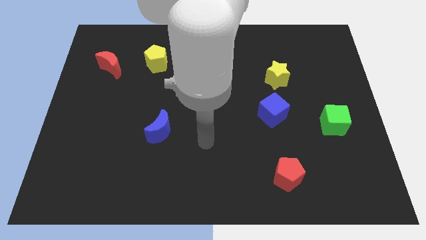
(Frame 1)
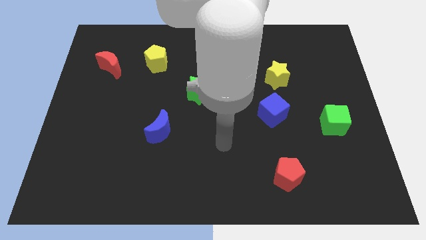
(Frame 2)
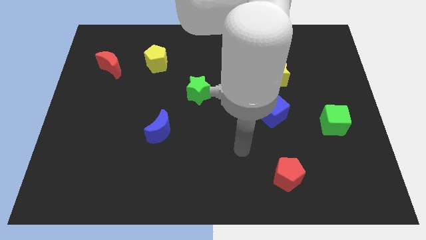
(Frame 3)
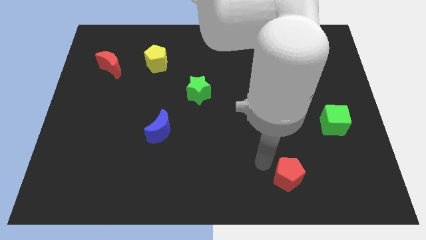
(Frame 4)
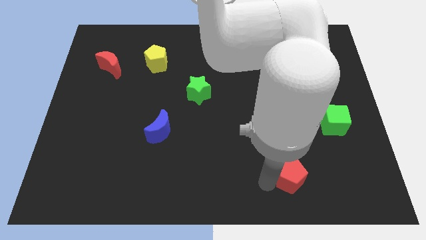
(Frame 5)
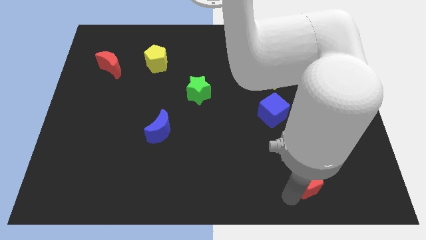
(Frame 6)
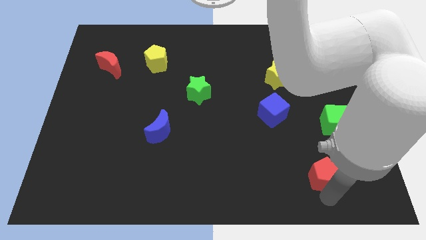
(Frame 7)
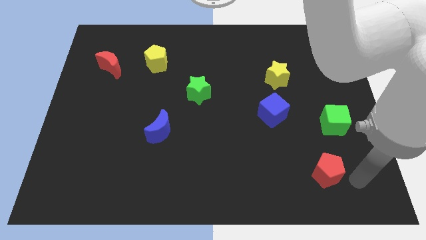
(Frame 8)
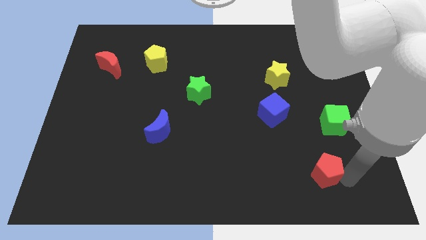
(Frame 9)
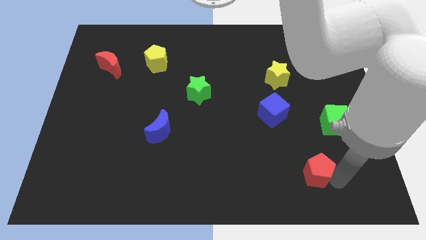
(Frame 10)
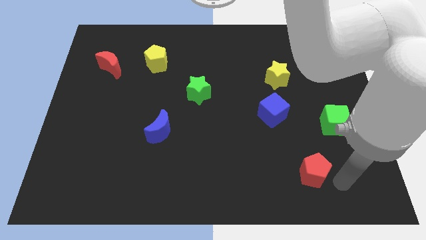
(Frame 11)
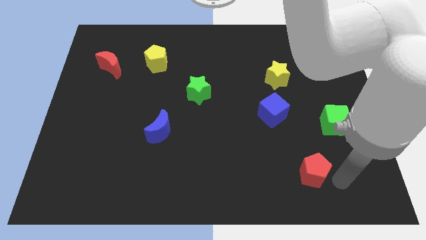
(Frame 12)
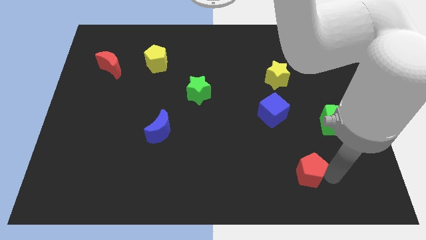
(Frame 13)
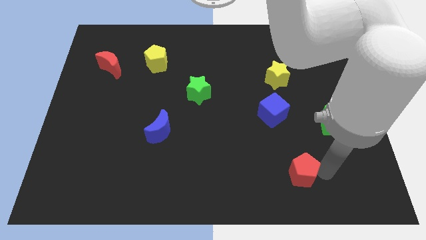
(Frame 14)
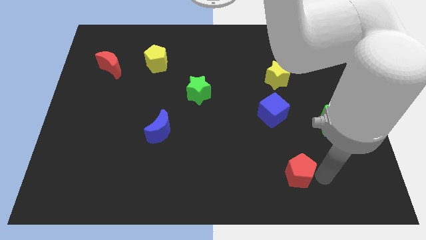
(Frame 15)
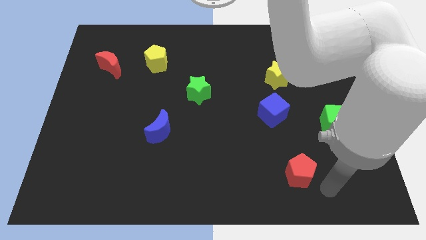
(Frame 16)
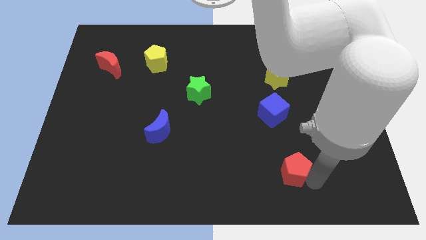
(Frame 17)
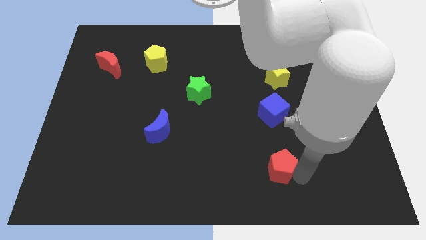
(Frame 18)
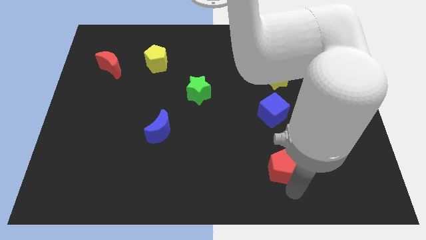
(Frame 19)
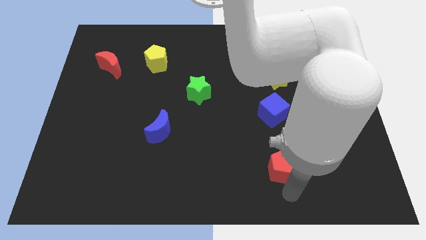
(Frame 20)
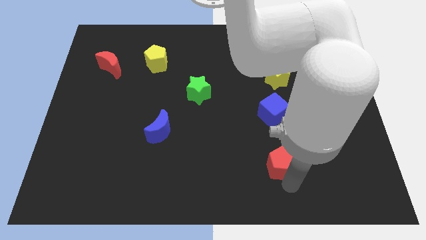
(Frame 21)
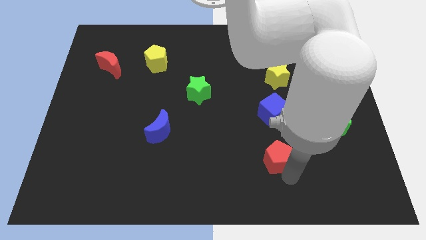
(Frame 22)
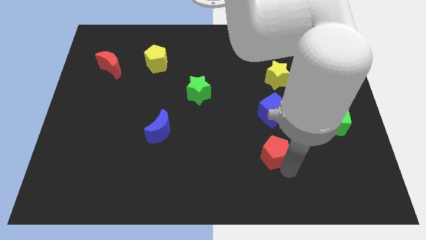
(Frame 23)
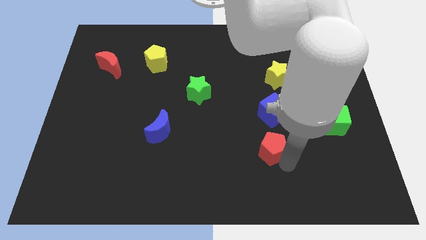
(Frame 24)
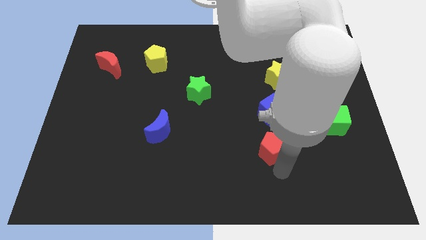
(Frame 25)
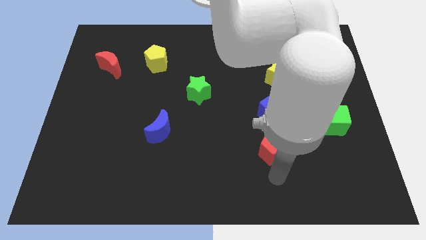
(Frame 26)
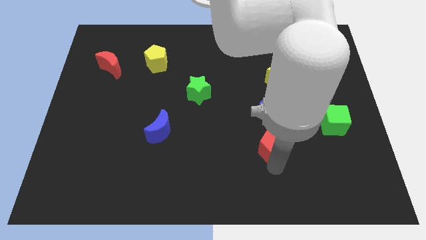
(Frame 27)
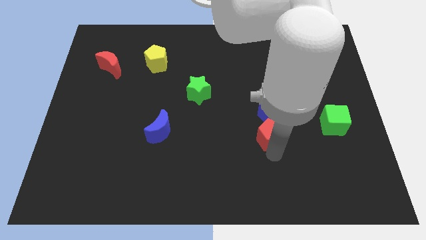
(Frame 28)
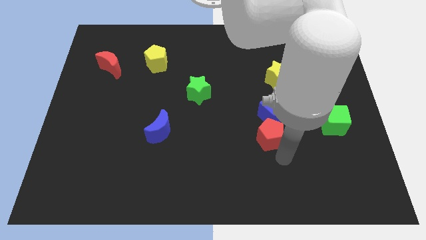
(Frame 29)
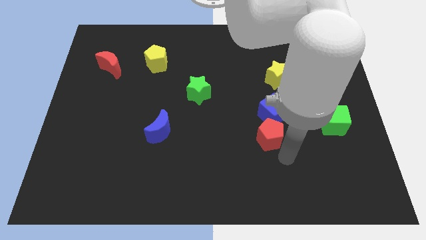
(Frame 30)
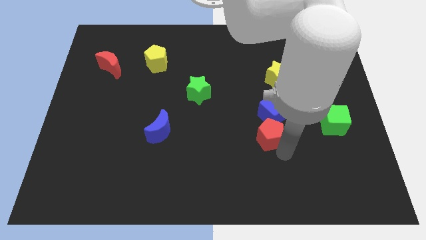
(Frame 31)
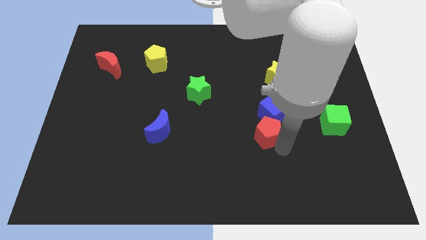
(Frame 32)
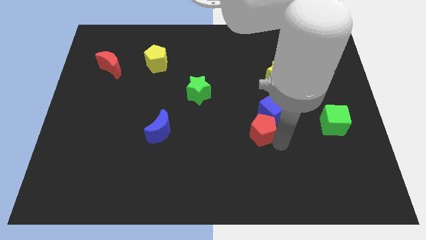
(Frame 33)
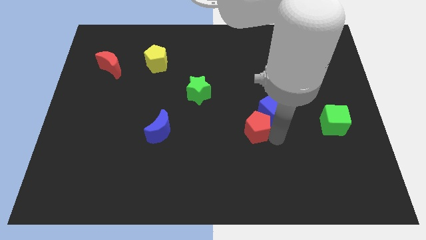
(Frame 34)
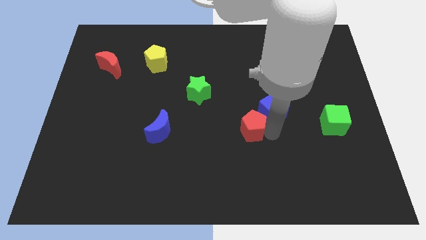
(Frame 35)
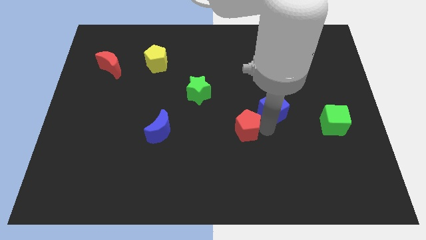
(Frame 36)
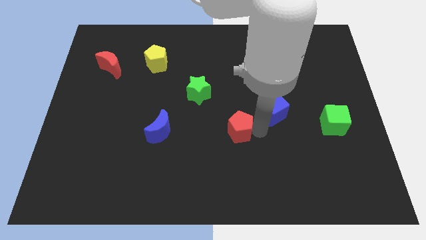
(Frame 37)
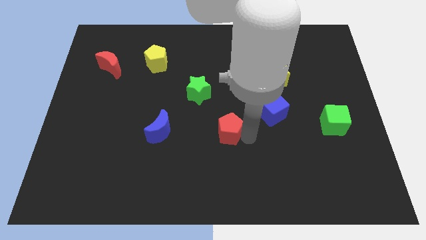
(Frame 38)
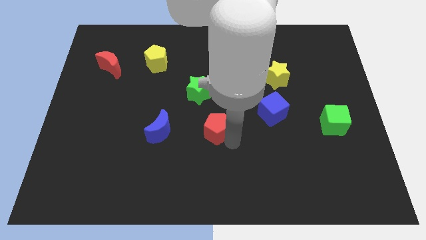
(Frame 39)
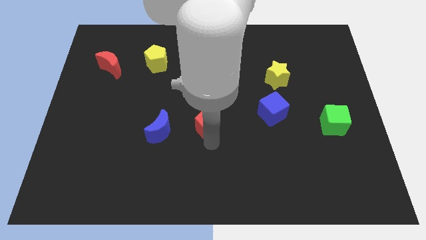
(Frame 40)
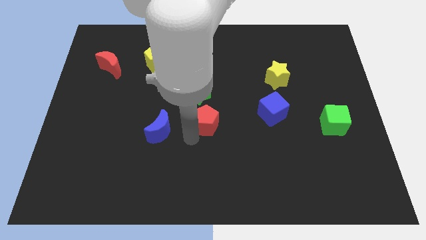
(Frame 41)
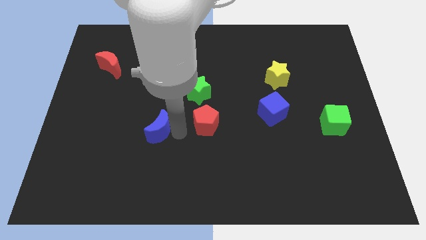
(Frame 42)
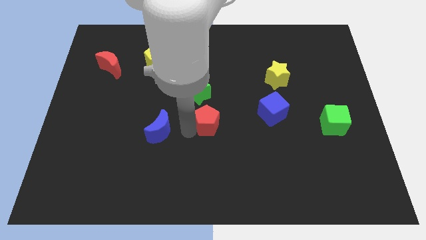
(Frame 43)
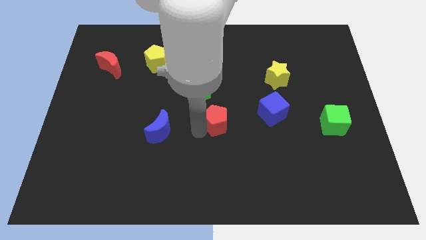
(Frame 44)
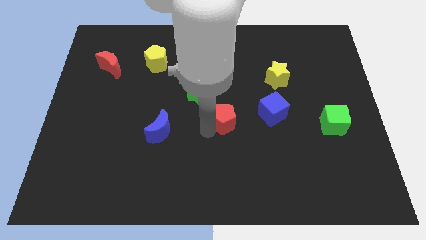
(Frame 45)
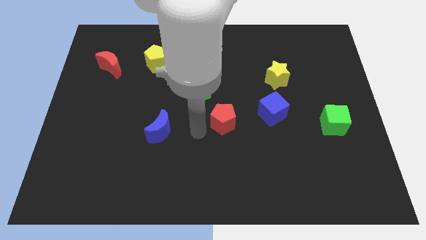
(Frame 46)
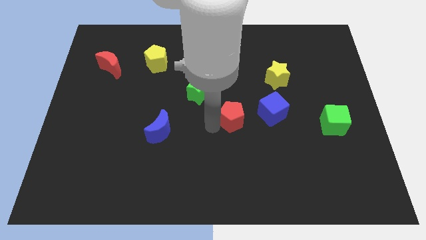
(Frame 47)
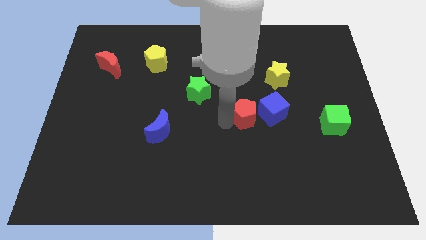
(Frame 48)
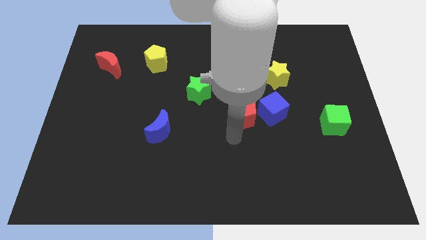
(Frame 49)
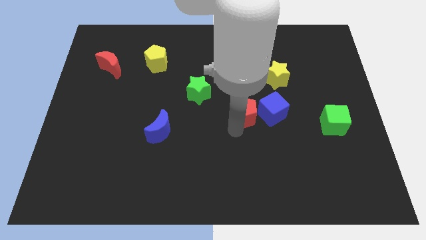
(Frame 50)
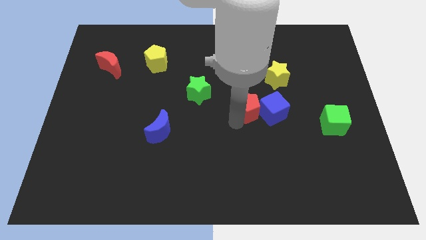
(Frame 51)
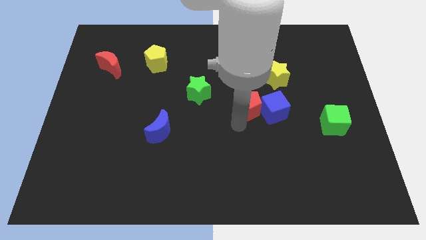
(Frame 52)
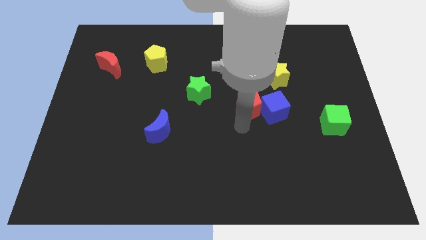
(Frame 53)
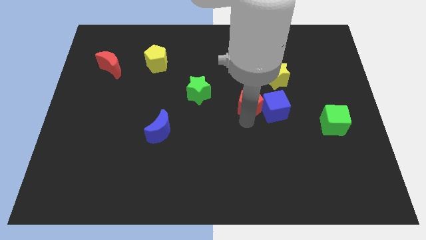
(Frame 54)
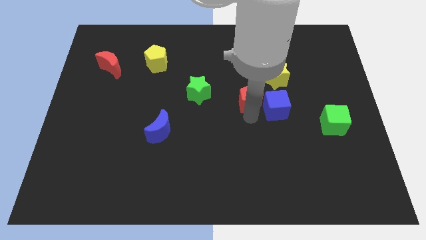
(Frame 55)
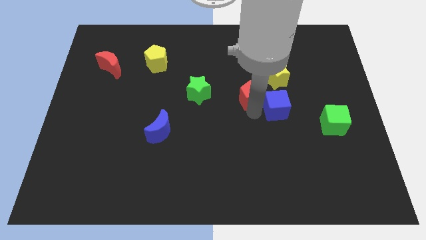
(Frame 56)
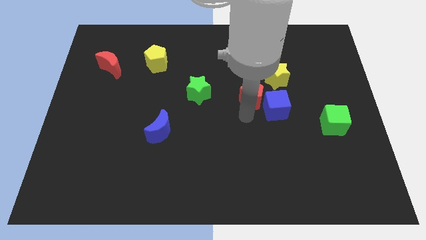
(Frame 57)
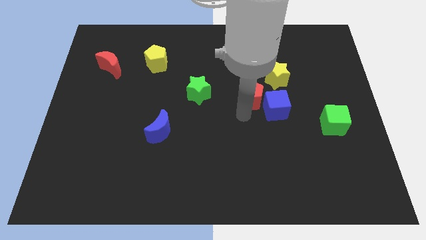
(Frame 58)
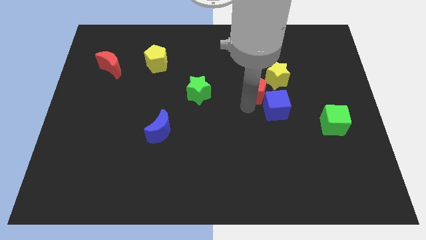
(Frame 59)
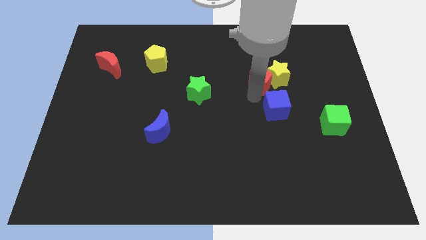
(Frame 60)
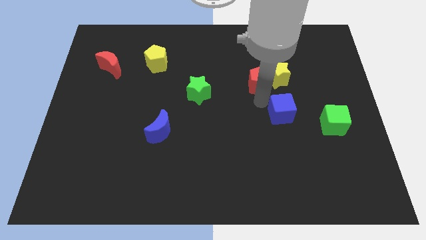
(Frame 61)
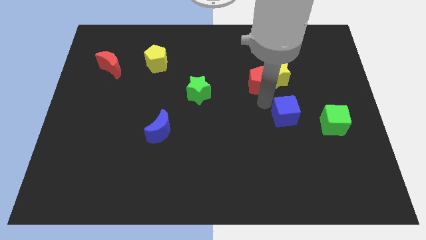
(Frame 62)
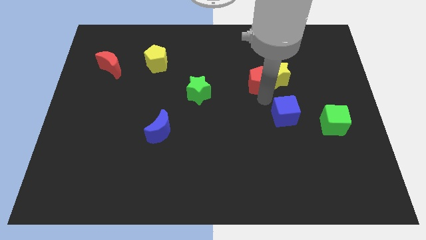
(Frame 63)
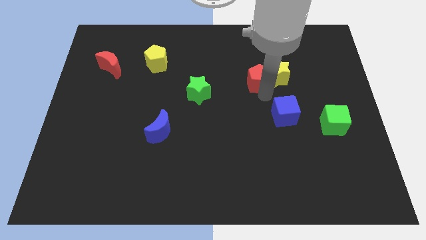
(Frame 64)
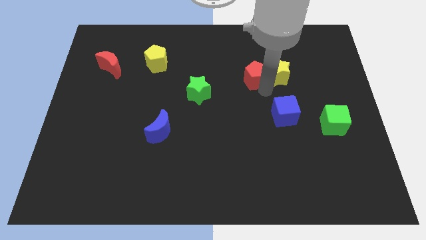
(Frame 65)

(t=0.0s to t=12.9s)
push the red pentagon to the top left of the yellow star

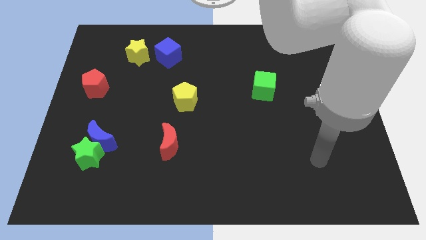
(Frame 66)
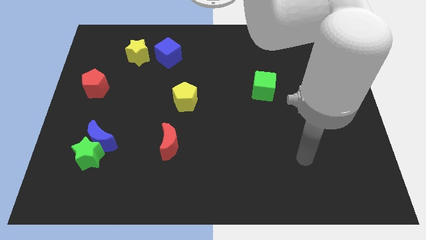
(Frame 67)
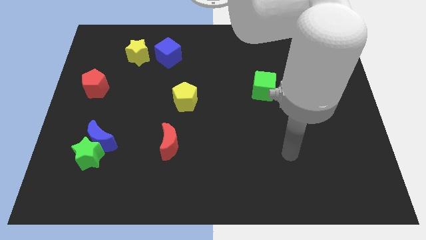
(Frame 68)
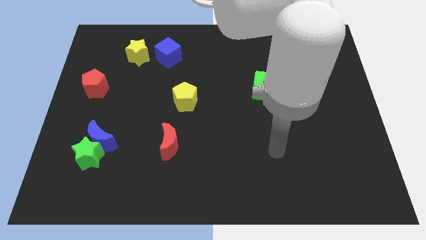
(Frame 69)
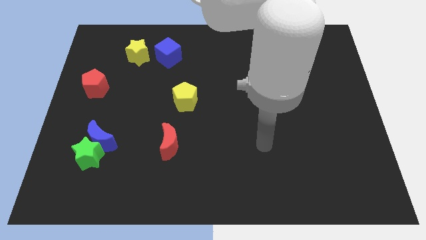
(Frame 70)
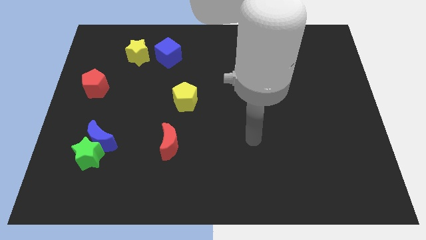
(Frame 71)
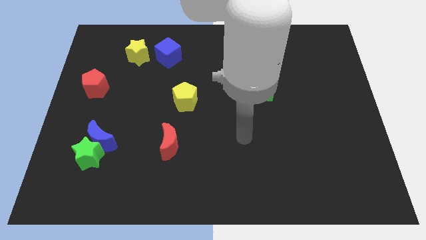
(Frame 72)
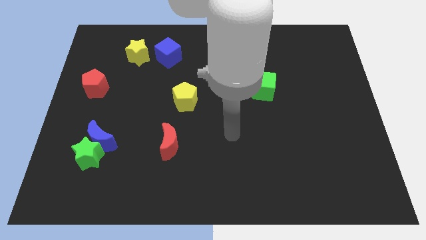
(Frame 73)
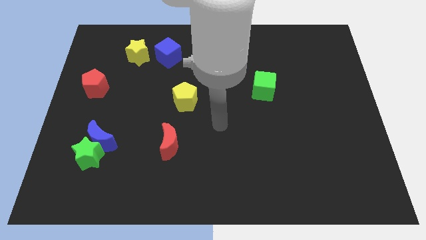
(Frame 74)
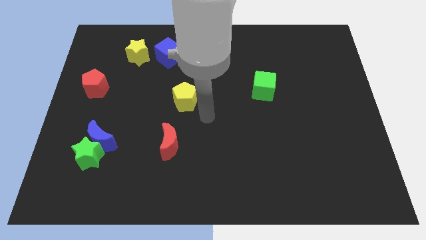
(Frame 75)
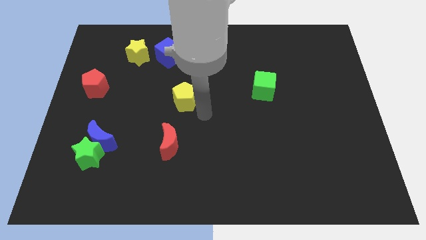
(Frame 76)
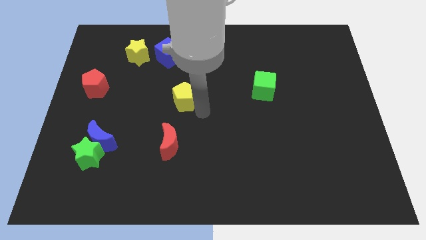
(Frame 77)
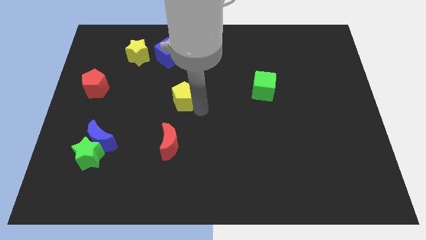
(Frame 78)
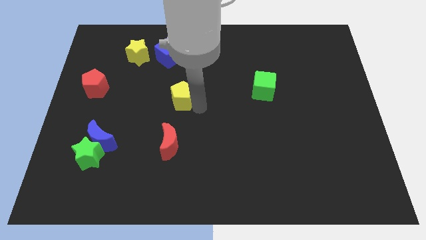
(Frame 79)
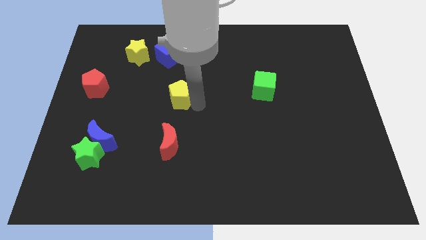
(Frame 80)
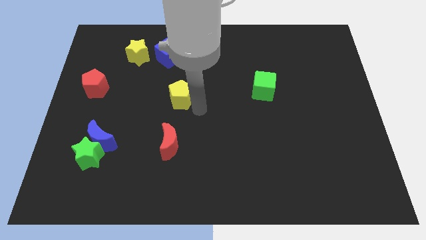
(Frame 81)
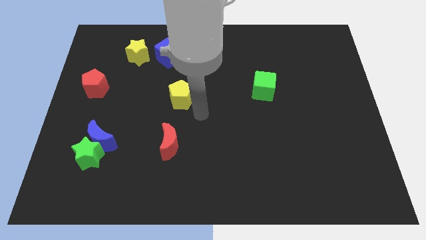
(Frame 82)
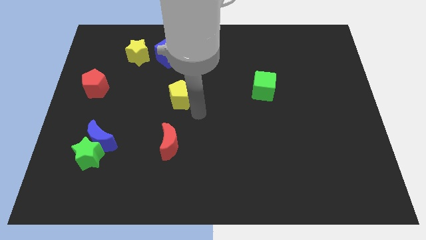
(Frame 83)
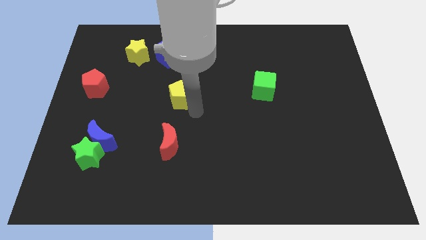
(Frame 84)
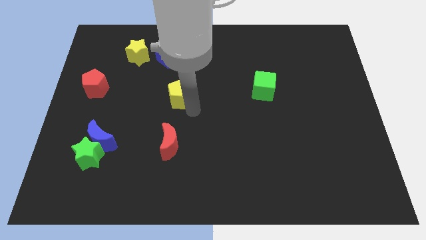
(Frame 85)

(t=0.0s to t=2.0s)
slide the yellow pentagon below the blue cube
